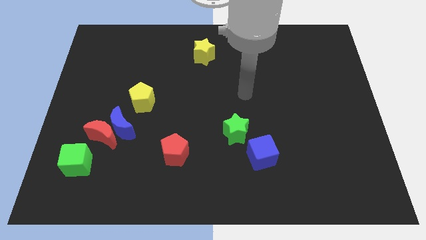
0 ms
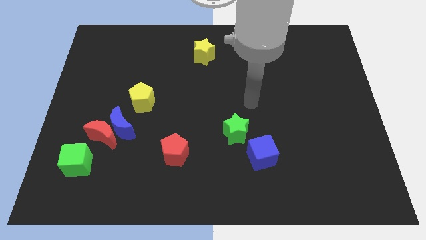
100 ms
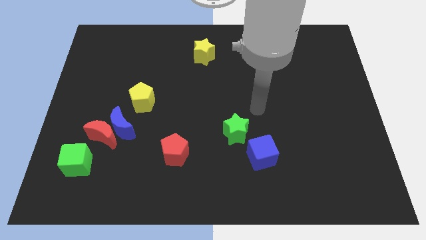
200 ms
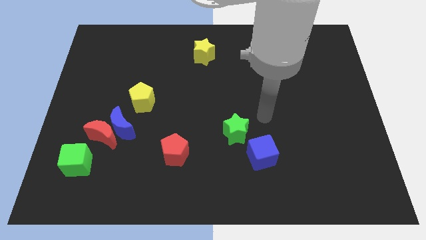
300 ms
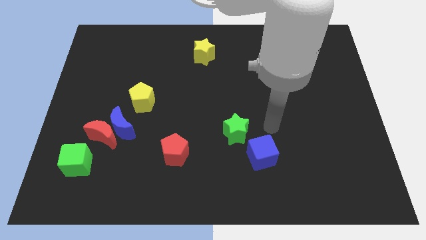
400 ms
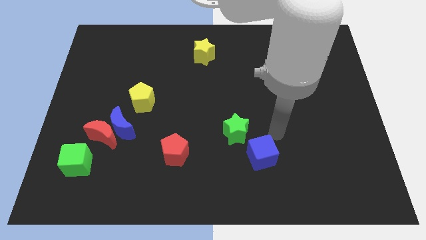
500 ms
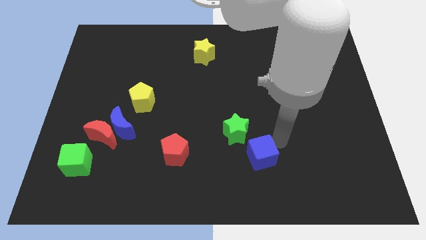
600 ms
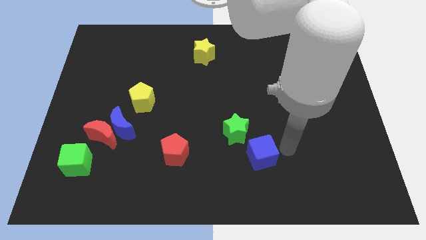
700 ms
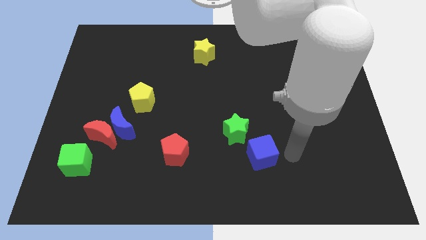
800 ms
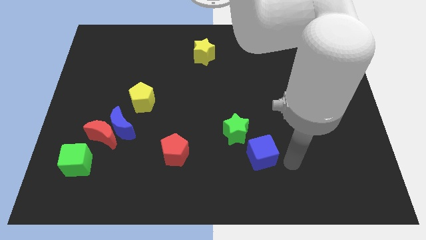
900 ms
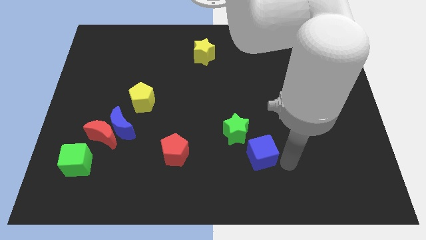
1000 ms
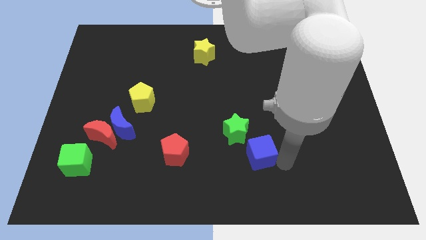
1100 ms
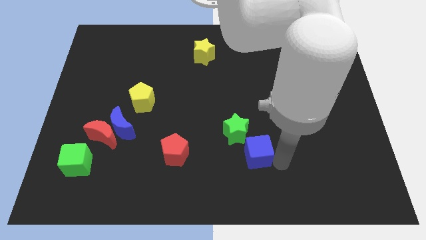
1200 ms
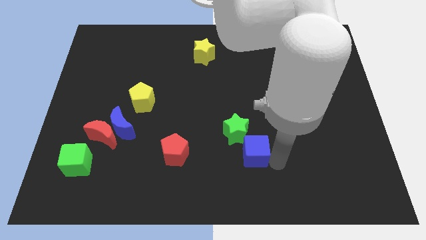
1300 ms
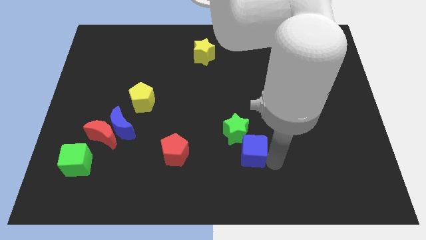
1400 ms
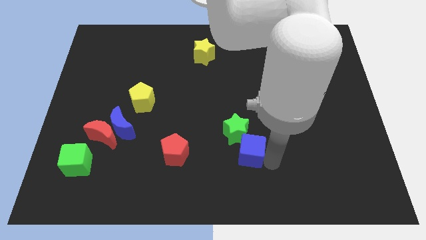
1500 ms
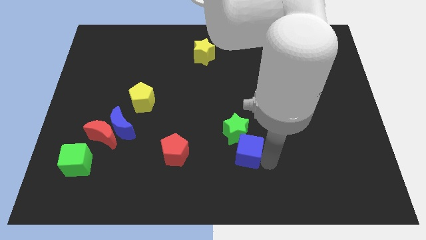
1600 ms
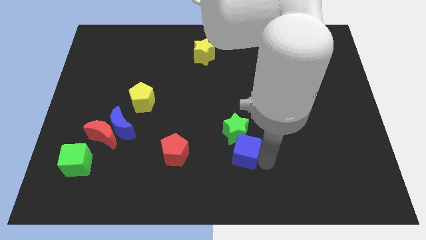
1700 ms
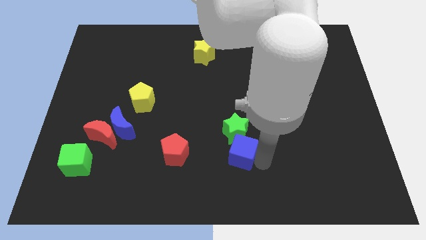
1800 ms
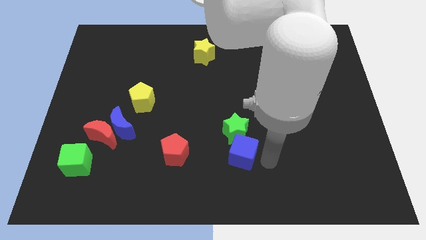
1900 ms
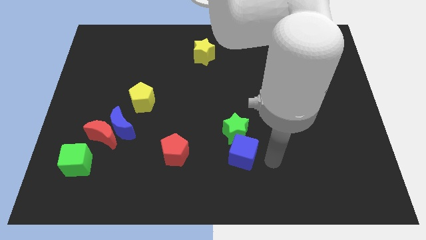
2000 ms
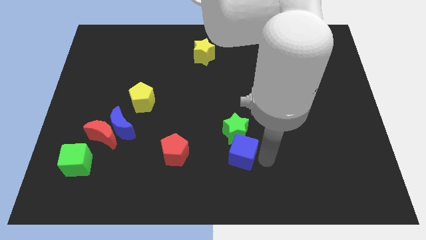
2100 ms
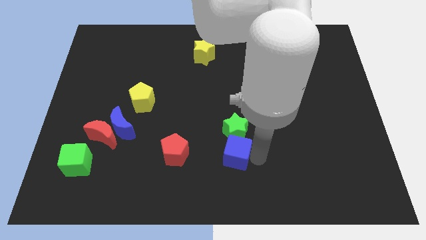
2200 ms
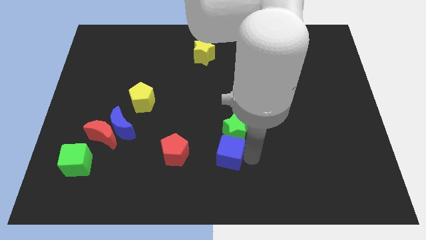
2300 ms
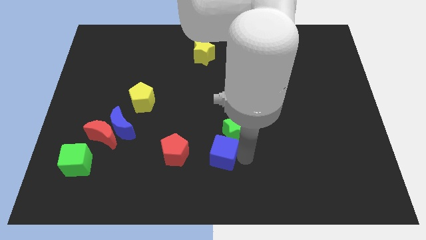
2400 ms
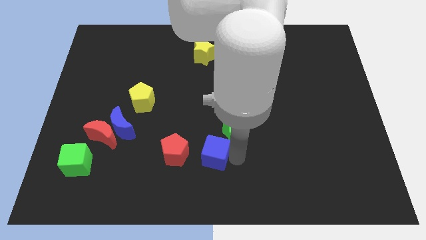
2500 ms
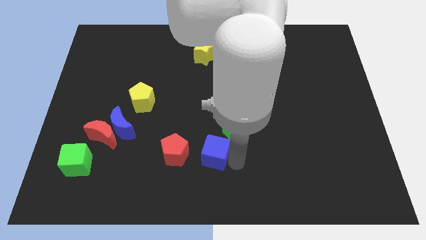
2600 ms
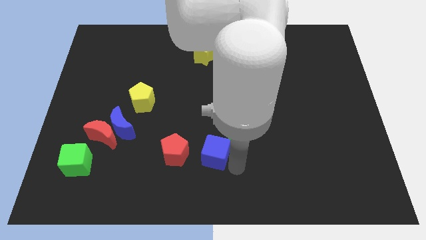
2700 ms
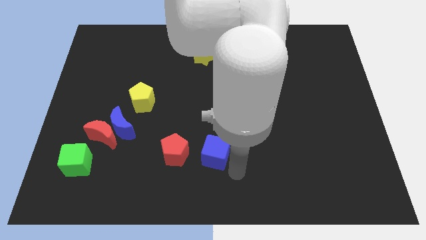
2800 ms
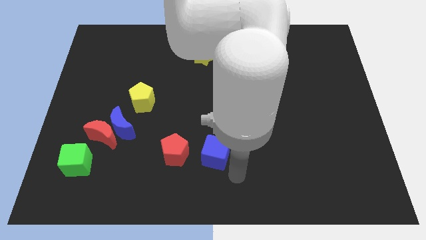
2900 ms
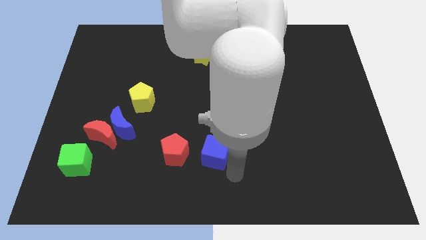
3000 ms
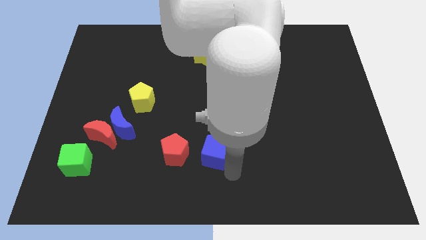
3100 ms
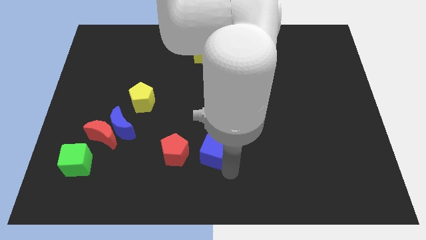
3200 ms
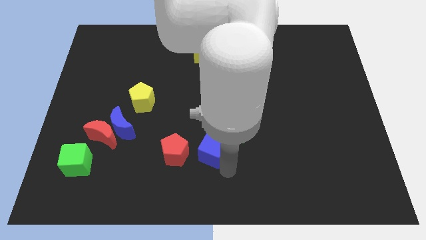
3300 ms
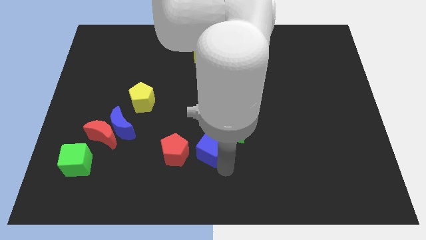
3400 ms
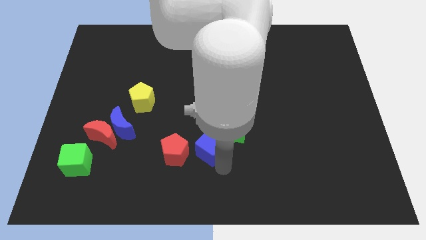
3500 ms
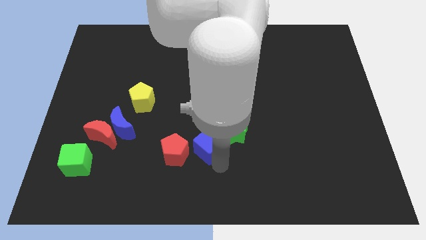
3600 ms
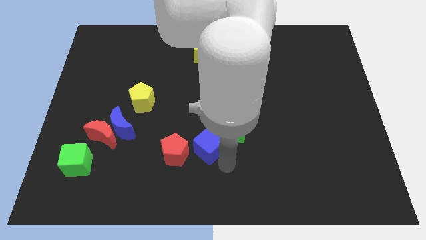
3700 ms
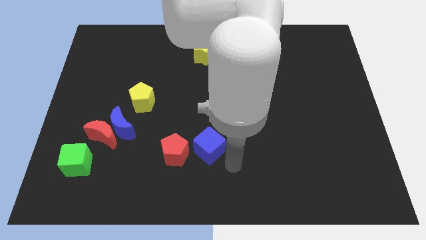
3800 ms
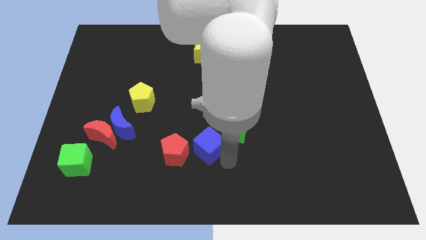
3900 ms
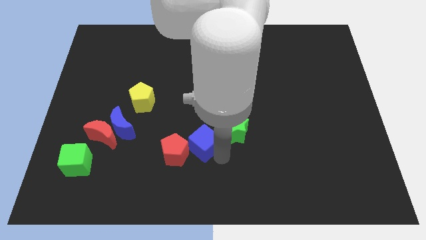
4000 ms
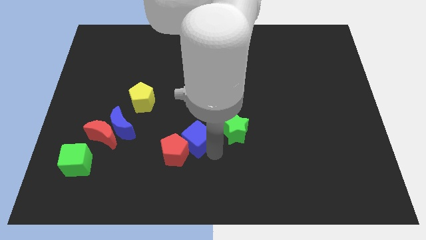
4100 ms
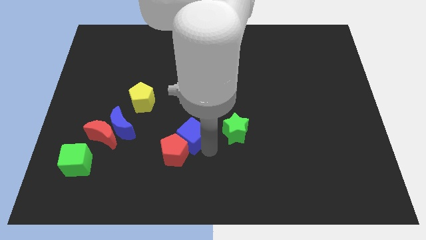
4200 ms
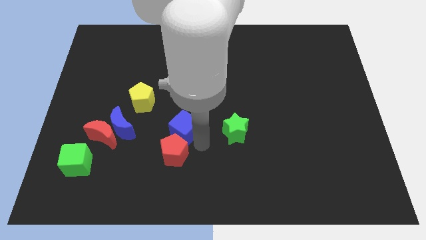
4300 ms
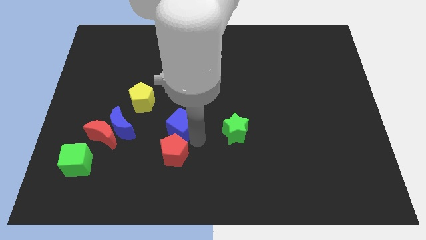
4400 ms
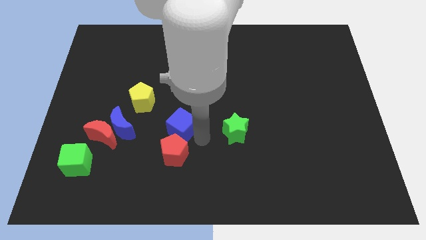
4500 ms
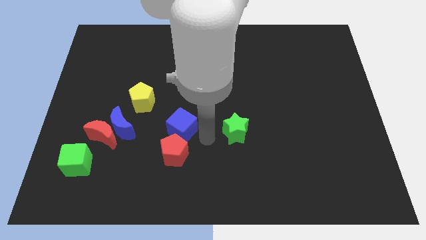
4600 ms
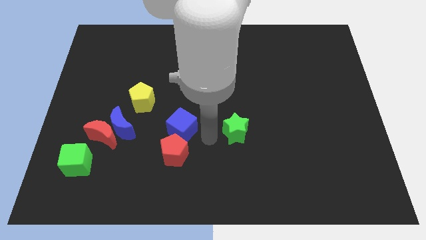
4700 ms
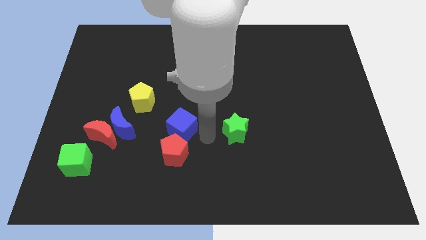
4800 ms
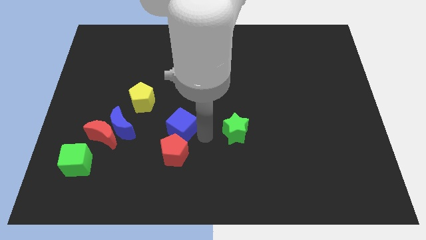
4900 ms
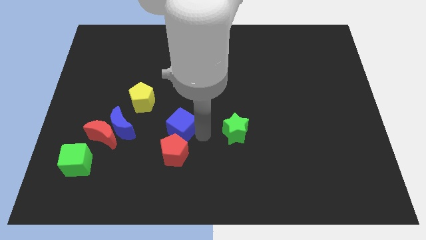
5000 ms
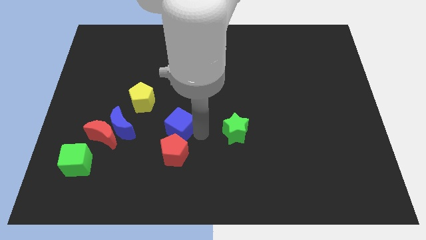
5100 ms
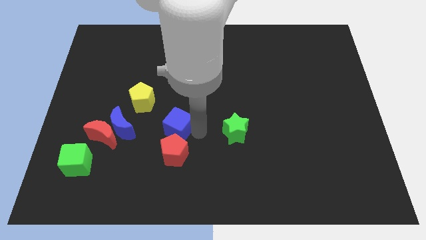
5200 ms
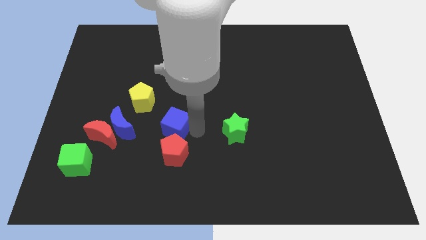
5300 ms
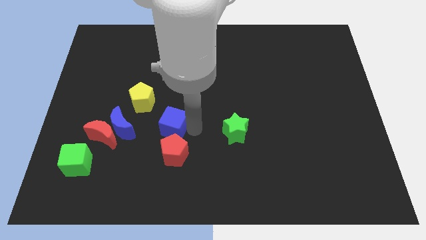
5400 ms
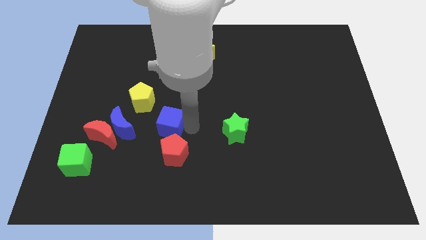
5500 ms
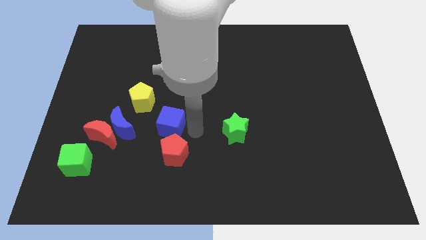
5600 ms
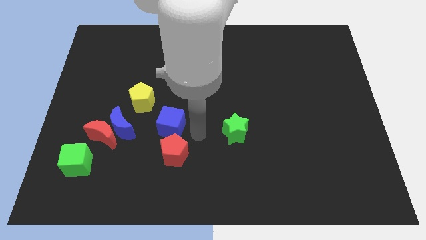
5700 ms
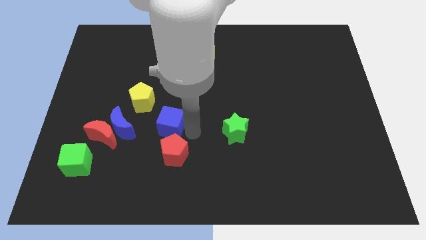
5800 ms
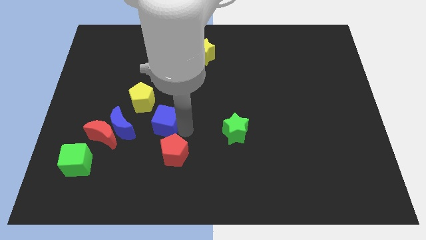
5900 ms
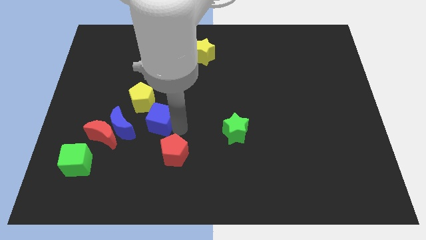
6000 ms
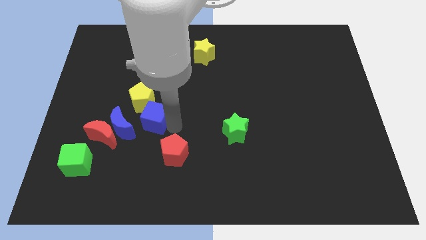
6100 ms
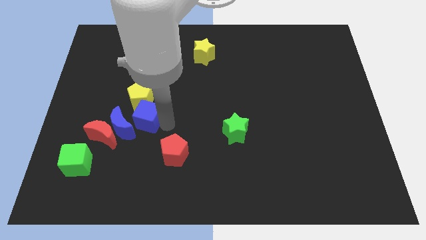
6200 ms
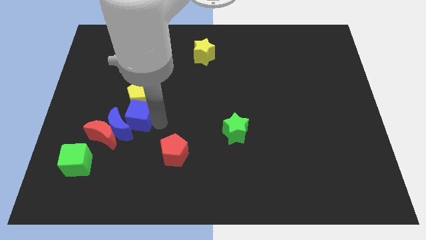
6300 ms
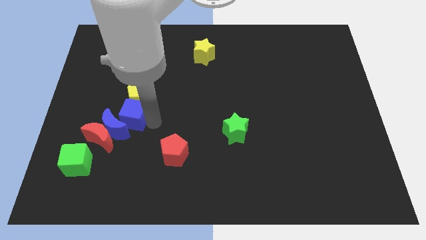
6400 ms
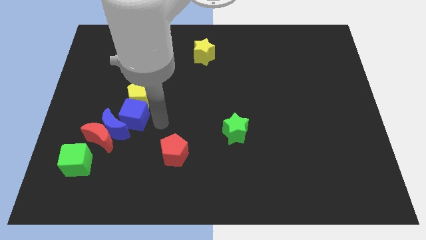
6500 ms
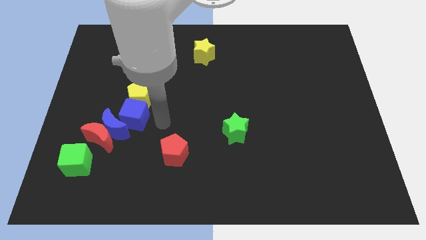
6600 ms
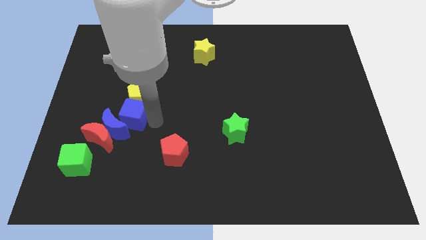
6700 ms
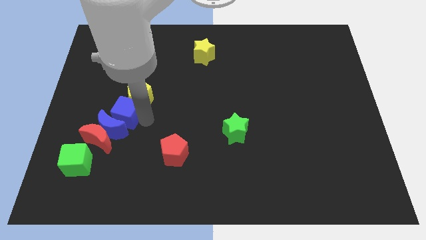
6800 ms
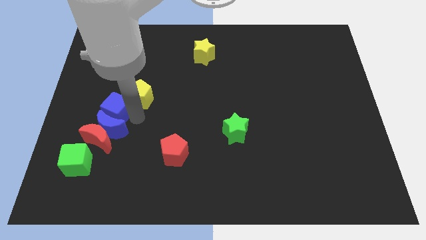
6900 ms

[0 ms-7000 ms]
slide the blue cube to the top left side of the blue moon

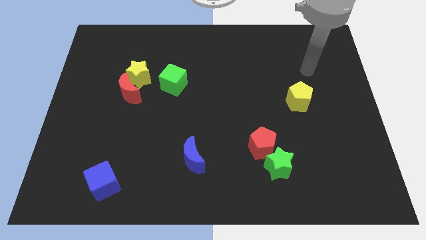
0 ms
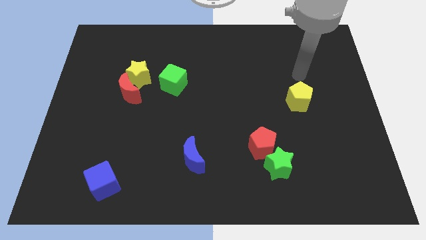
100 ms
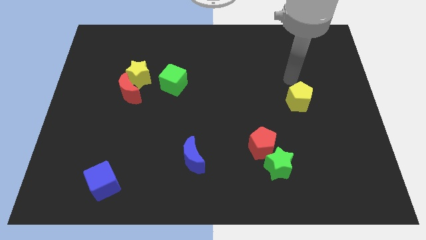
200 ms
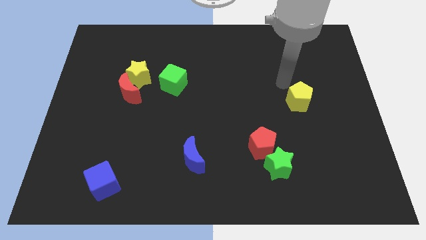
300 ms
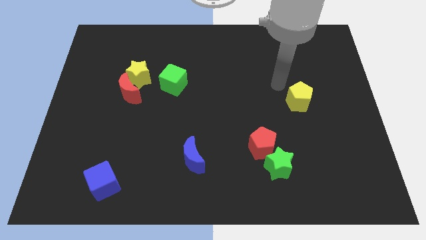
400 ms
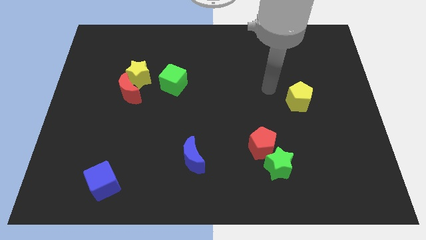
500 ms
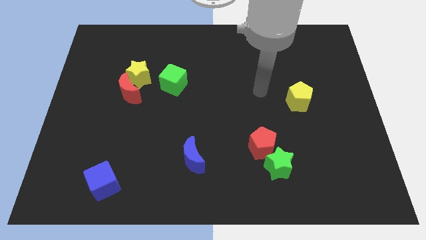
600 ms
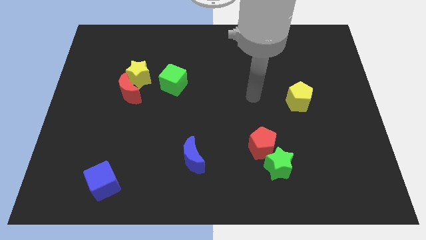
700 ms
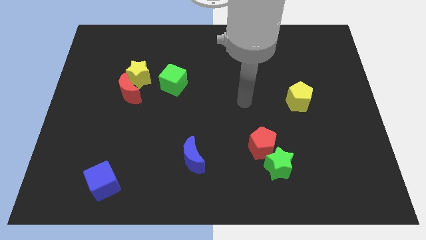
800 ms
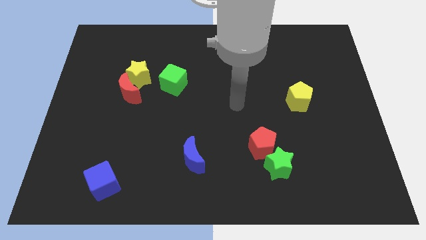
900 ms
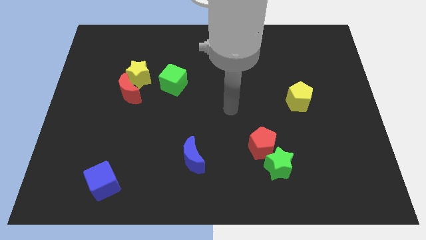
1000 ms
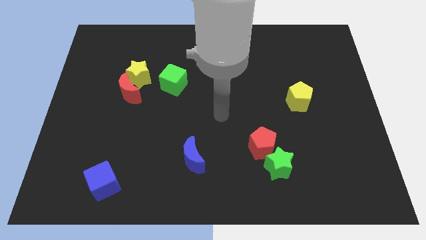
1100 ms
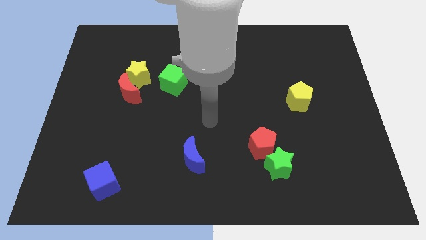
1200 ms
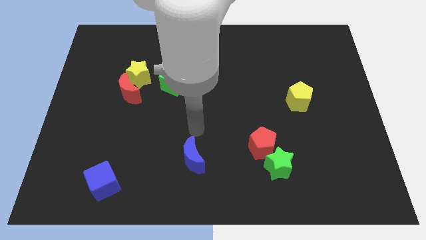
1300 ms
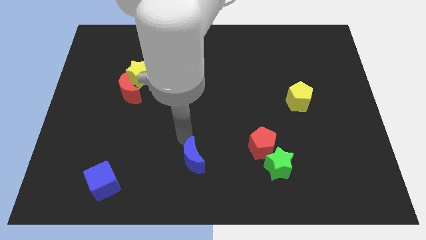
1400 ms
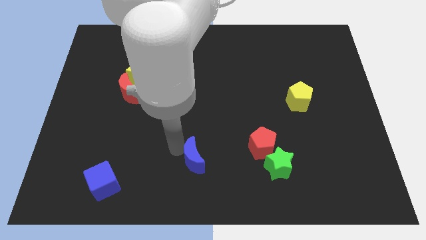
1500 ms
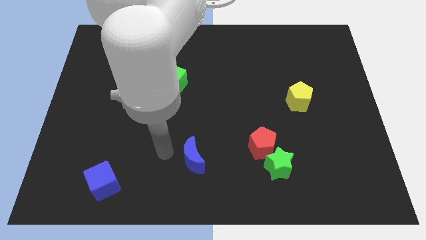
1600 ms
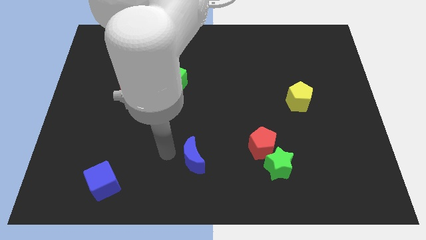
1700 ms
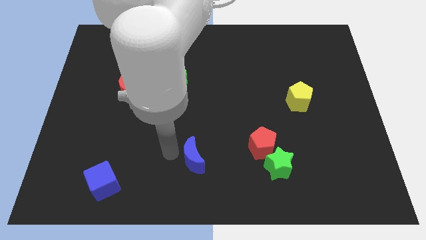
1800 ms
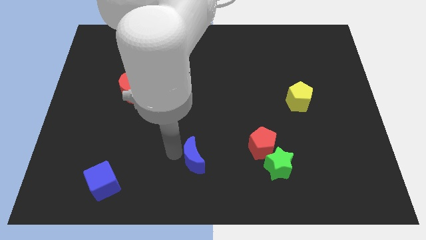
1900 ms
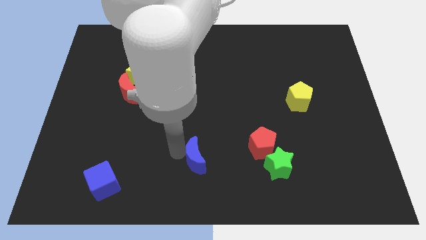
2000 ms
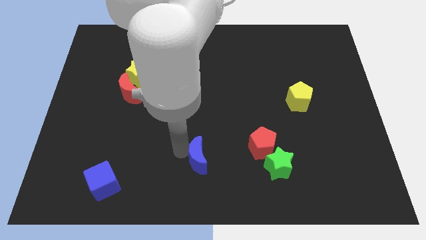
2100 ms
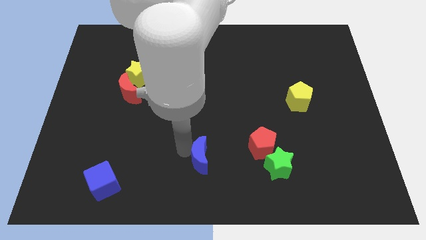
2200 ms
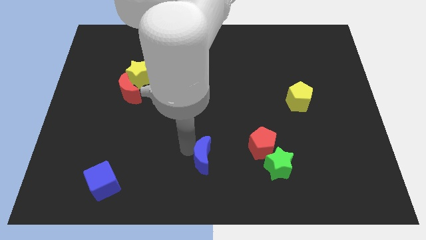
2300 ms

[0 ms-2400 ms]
push the blue moon just left of the green star
